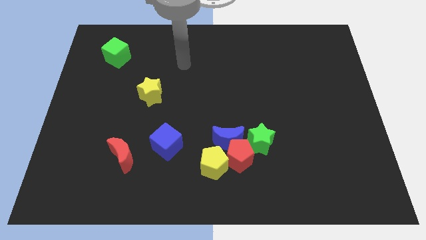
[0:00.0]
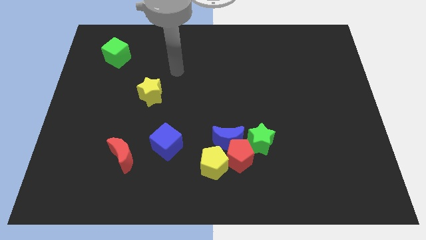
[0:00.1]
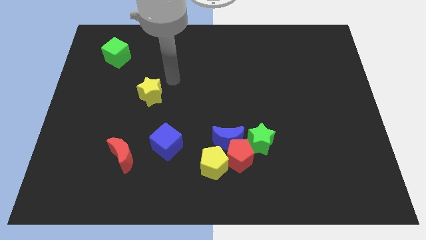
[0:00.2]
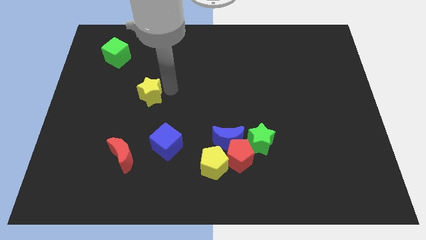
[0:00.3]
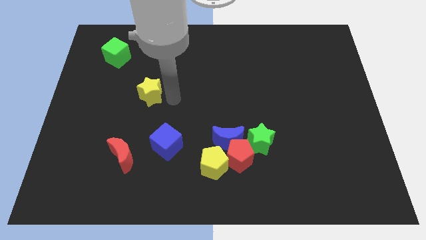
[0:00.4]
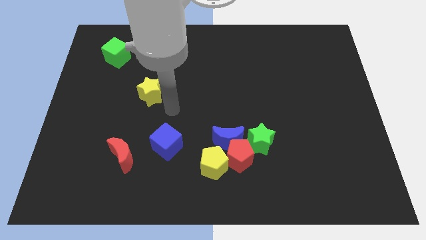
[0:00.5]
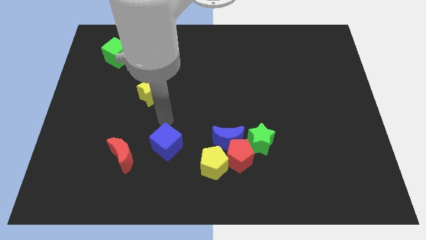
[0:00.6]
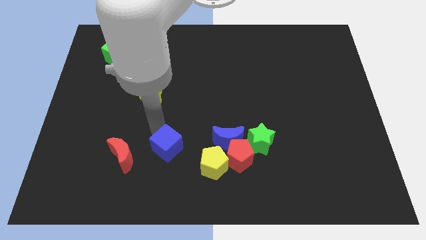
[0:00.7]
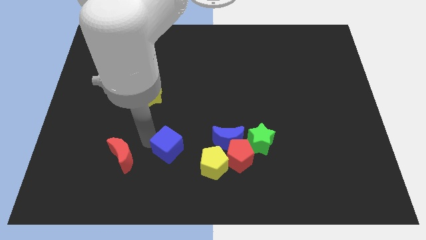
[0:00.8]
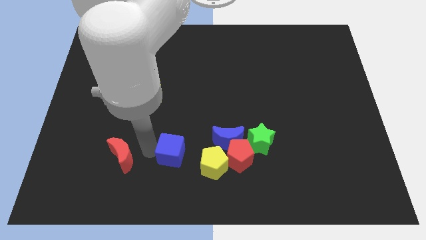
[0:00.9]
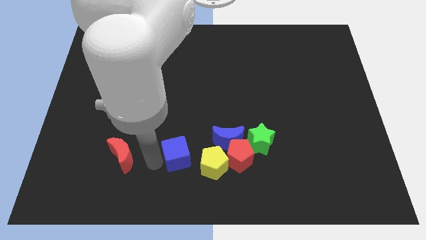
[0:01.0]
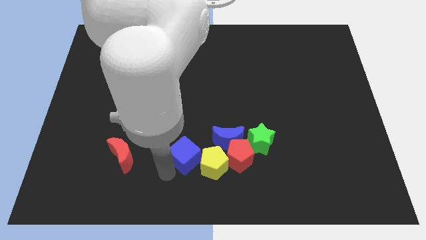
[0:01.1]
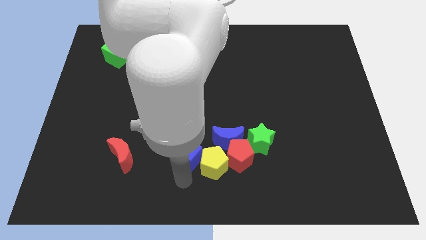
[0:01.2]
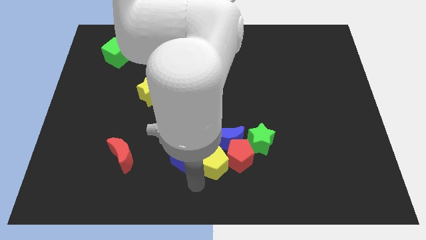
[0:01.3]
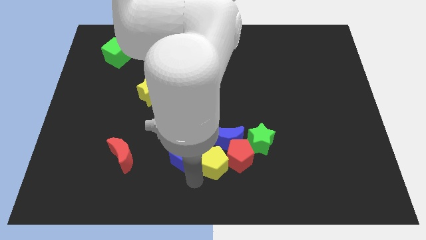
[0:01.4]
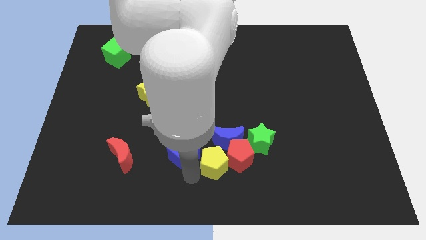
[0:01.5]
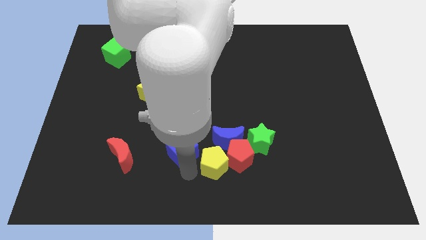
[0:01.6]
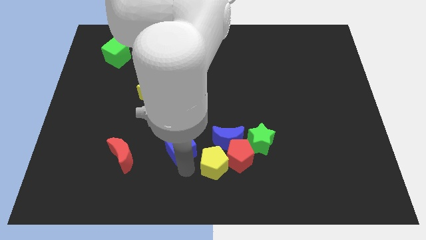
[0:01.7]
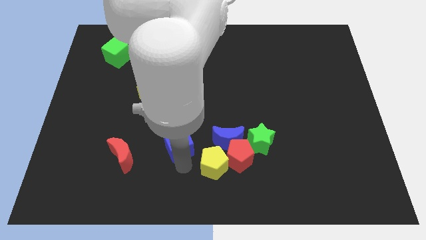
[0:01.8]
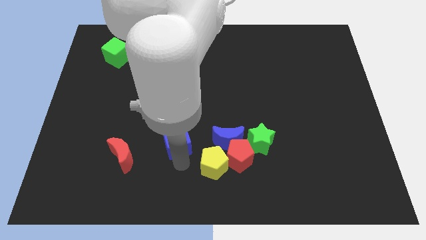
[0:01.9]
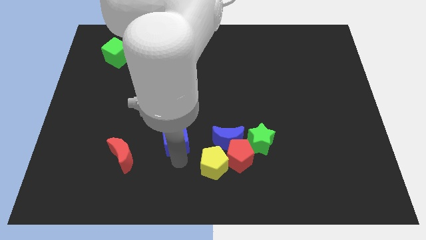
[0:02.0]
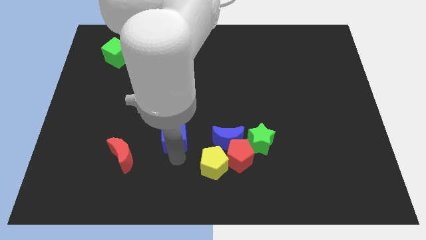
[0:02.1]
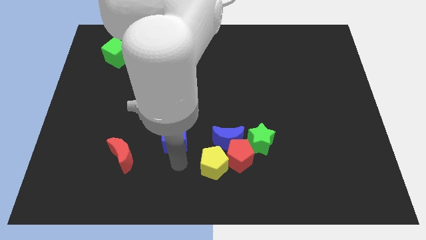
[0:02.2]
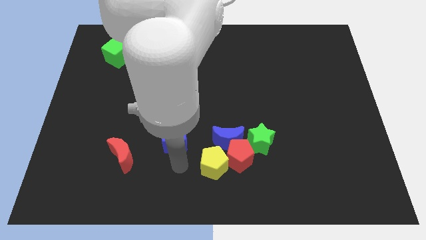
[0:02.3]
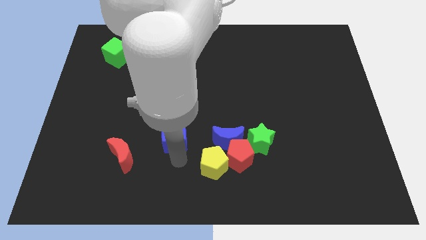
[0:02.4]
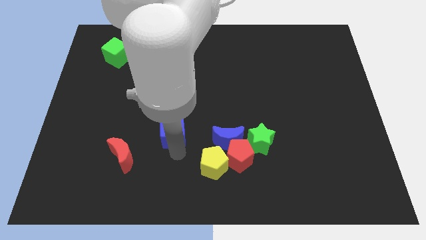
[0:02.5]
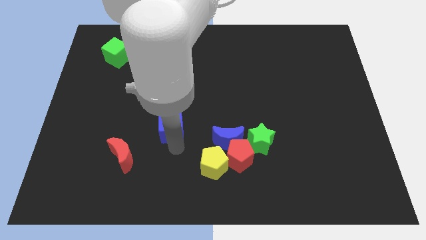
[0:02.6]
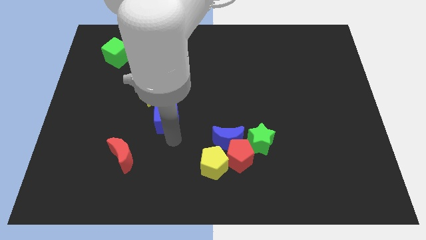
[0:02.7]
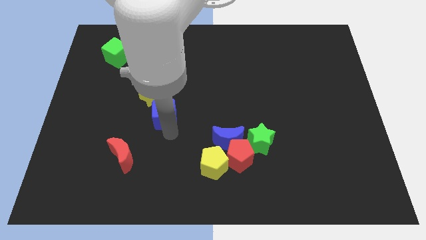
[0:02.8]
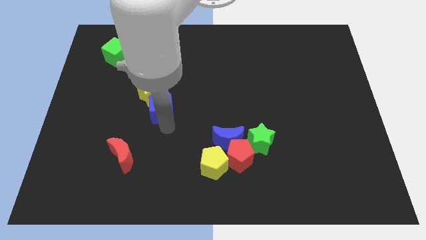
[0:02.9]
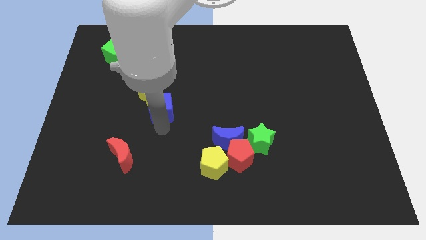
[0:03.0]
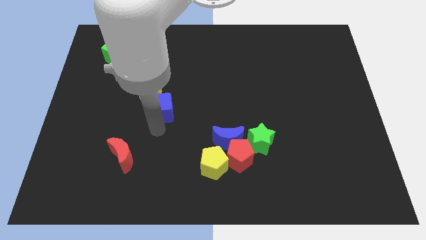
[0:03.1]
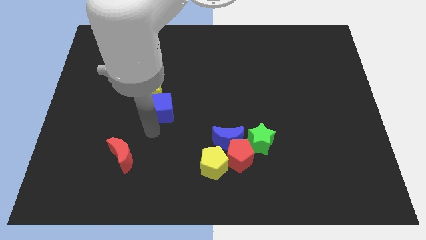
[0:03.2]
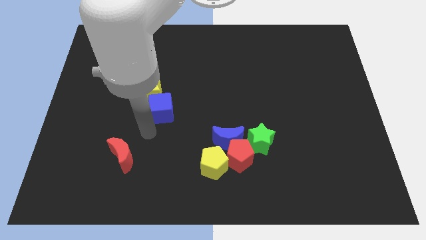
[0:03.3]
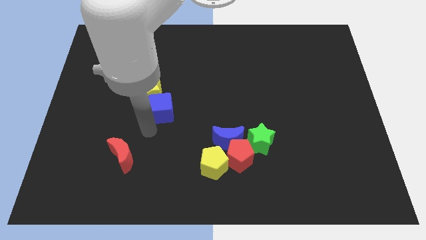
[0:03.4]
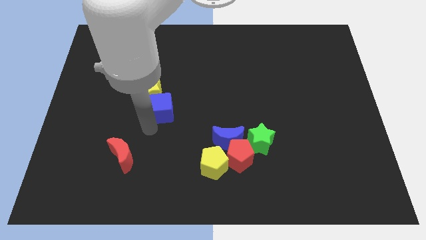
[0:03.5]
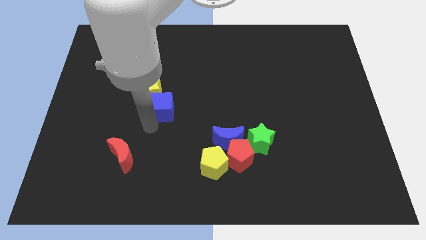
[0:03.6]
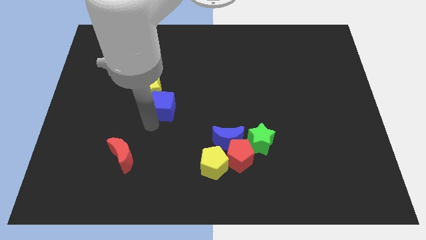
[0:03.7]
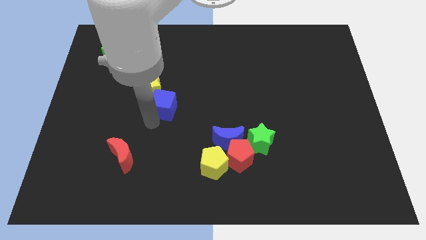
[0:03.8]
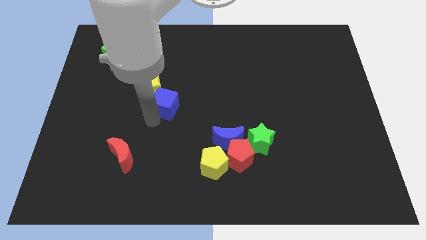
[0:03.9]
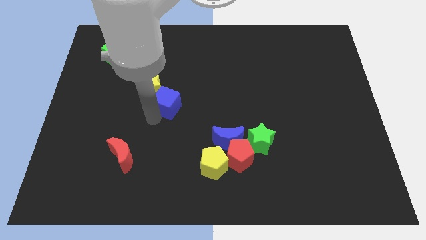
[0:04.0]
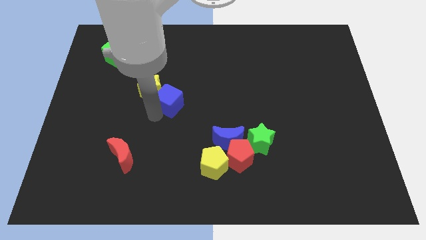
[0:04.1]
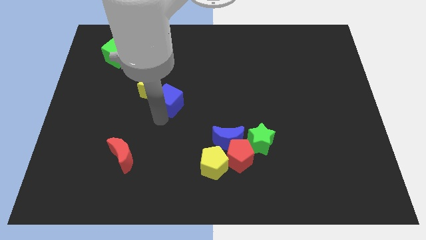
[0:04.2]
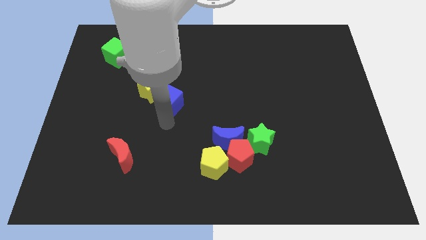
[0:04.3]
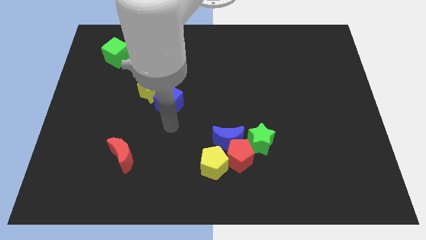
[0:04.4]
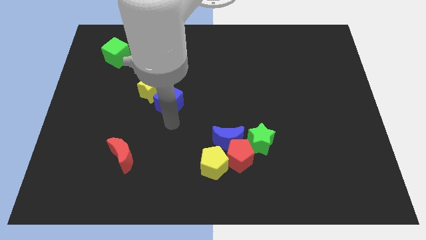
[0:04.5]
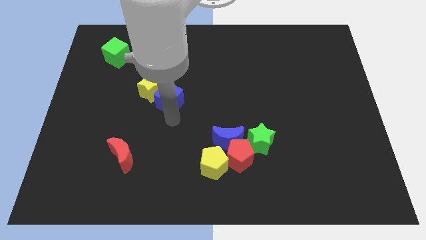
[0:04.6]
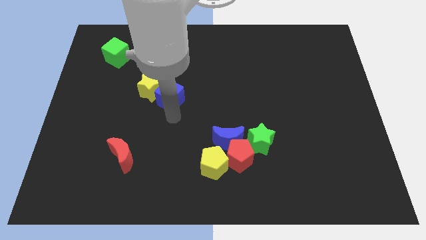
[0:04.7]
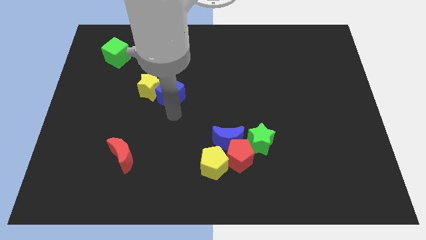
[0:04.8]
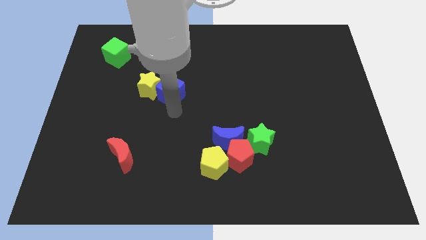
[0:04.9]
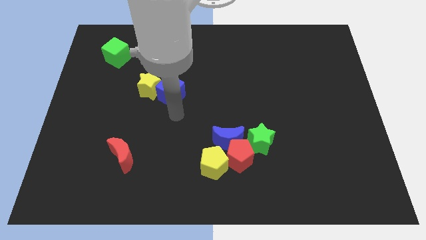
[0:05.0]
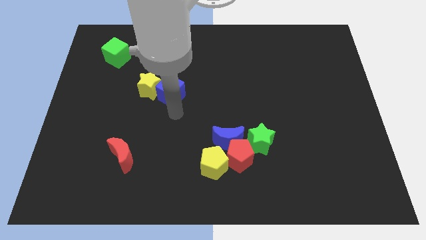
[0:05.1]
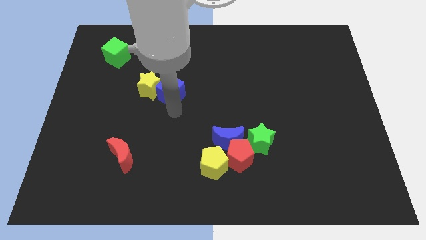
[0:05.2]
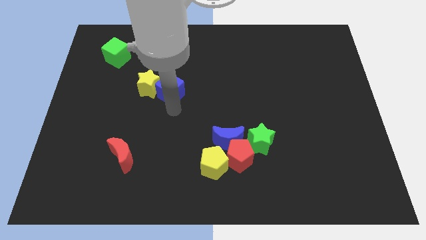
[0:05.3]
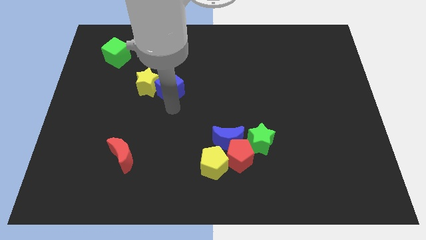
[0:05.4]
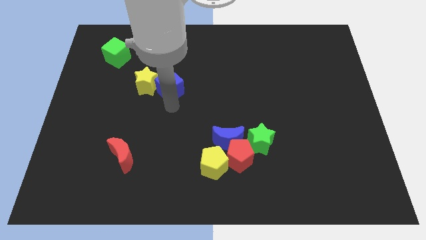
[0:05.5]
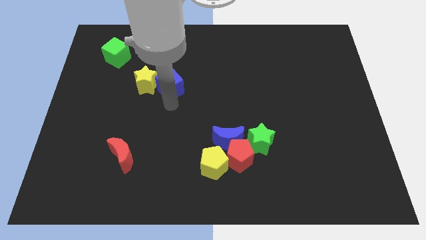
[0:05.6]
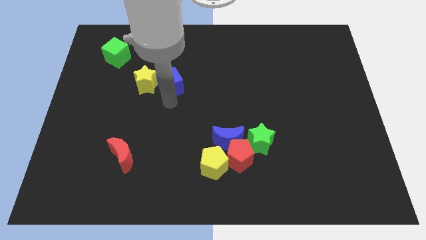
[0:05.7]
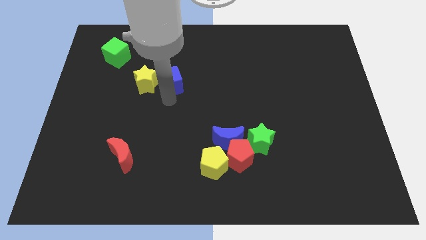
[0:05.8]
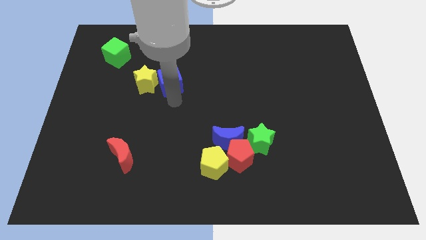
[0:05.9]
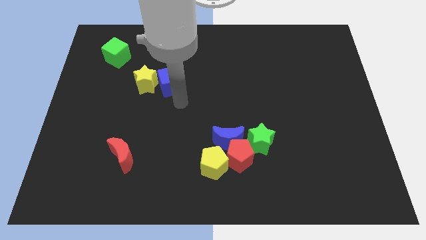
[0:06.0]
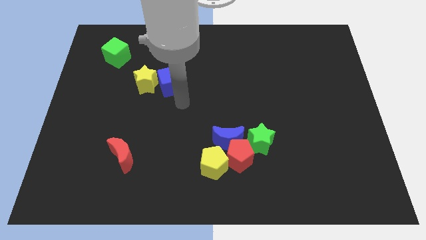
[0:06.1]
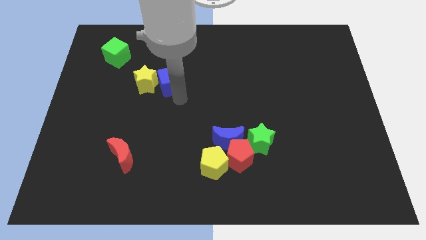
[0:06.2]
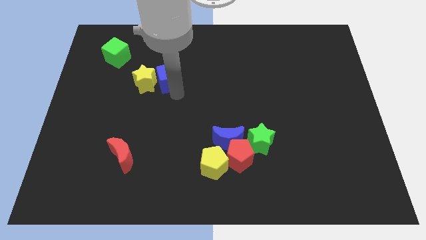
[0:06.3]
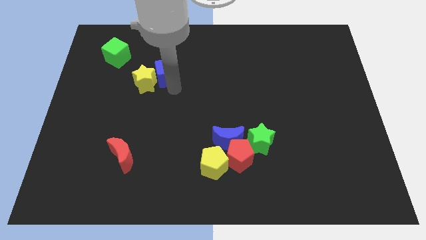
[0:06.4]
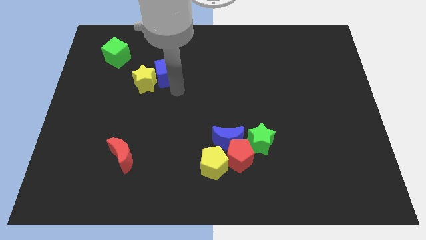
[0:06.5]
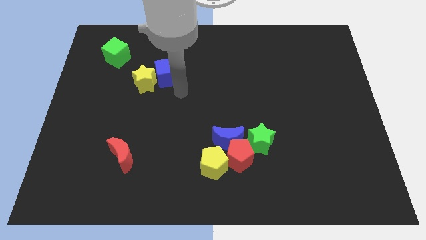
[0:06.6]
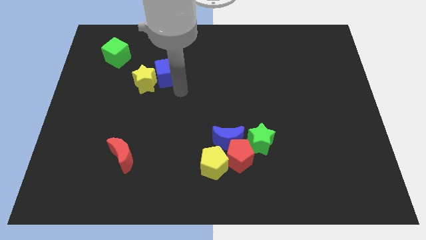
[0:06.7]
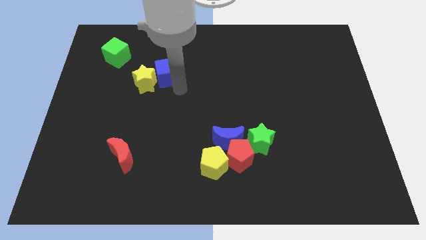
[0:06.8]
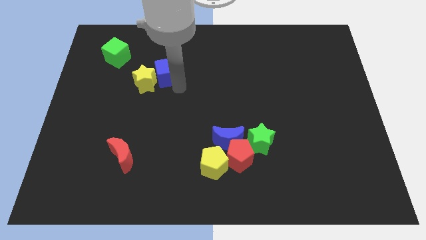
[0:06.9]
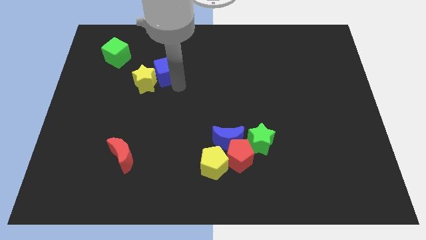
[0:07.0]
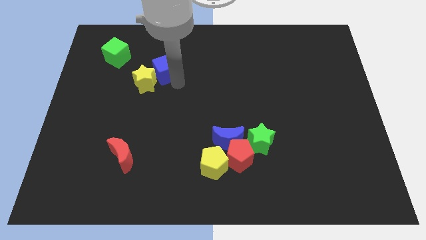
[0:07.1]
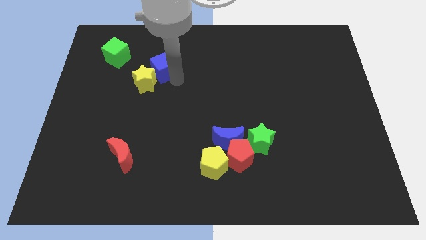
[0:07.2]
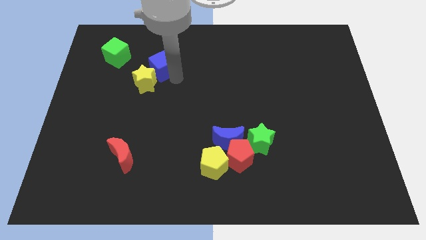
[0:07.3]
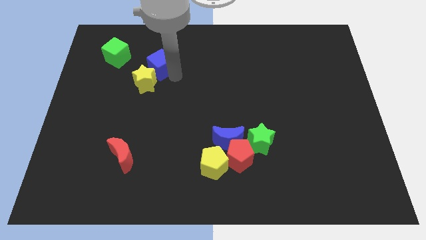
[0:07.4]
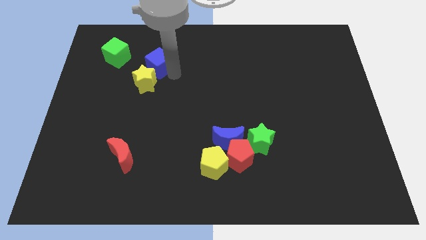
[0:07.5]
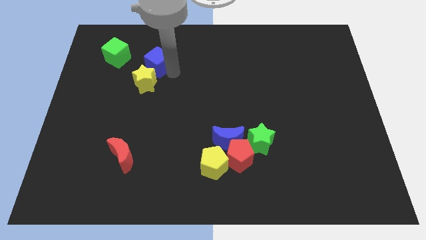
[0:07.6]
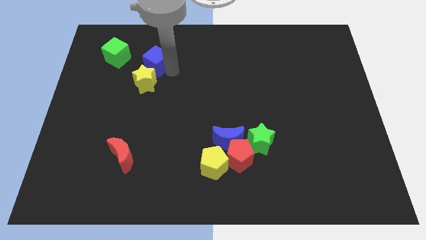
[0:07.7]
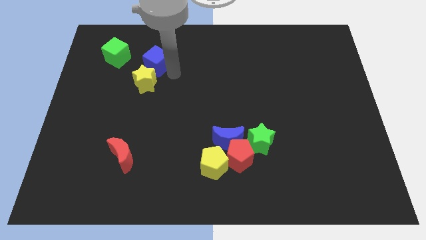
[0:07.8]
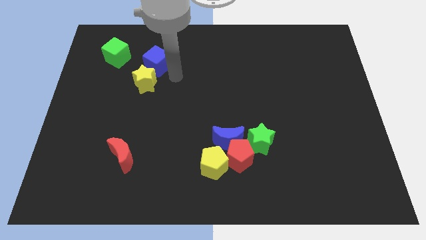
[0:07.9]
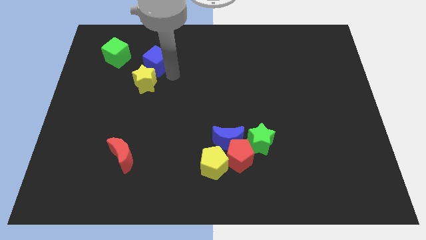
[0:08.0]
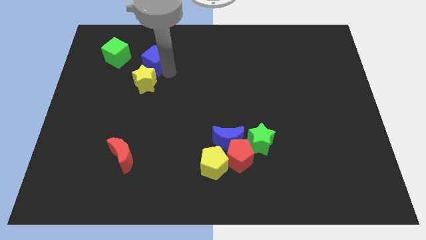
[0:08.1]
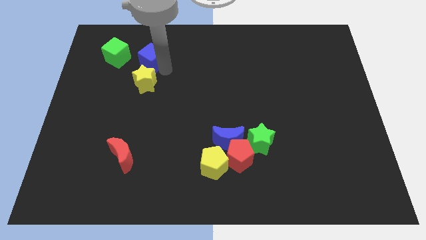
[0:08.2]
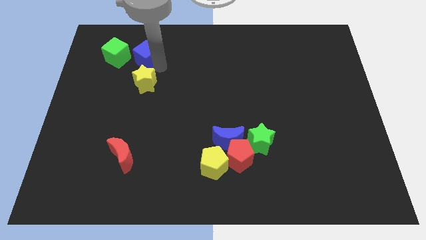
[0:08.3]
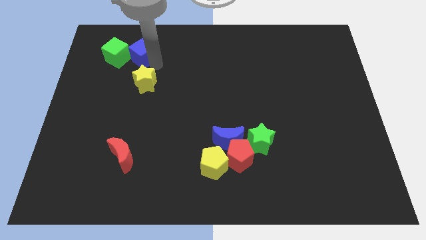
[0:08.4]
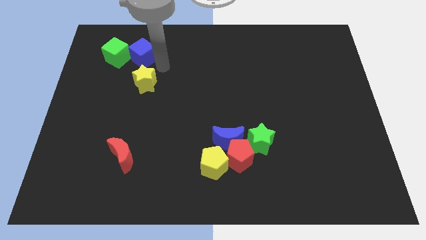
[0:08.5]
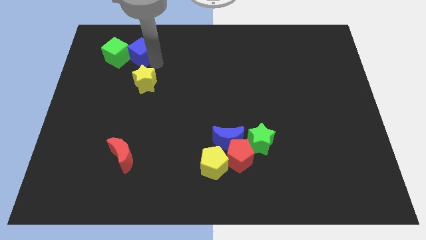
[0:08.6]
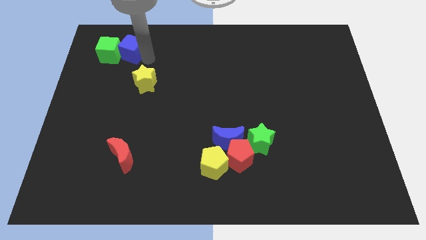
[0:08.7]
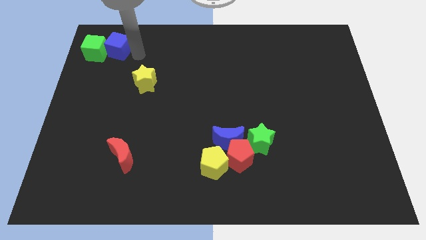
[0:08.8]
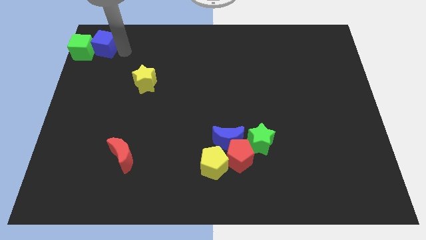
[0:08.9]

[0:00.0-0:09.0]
put the blue cube to the top left of the board
